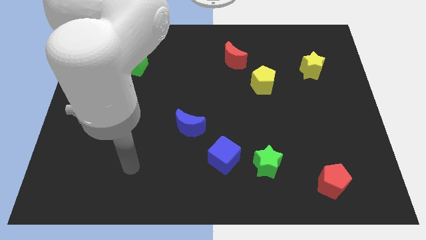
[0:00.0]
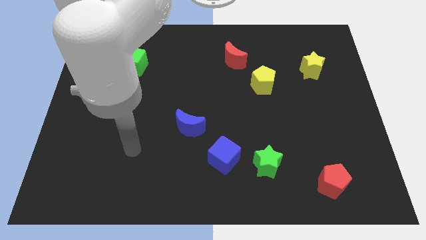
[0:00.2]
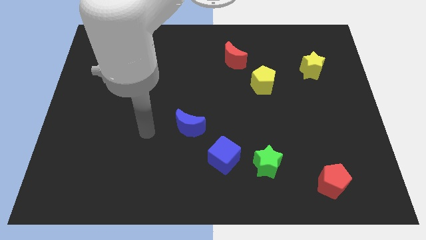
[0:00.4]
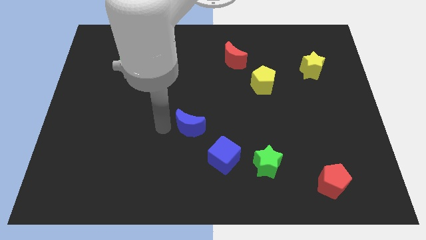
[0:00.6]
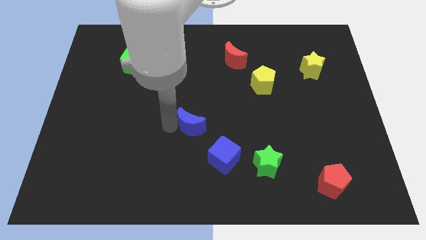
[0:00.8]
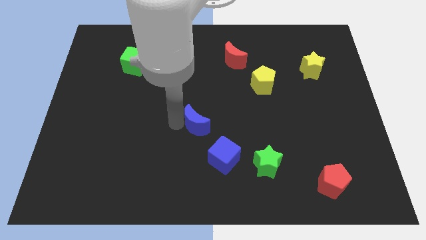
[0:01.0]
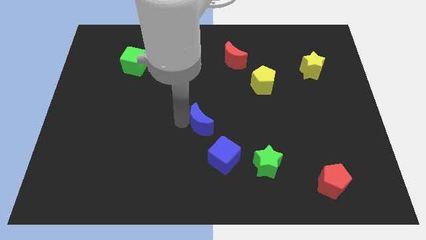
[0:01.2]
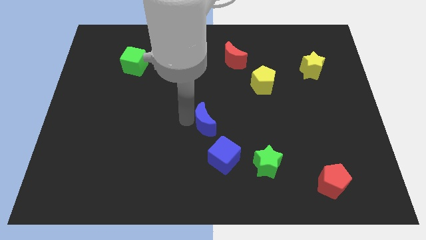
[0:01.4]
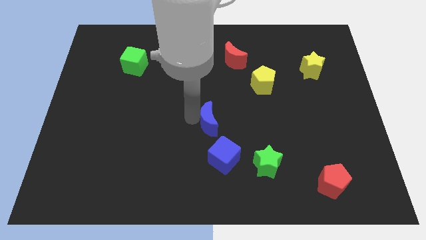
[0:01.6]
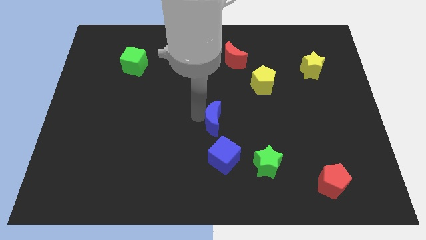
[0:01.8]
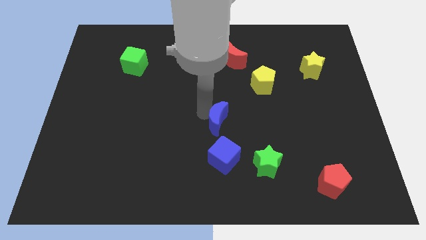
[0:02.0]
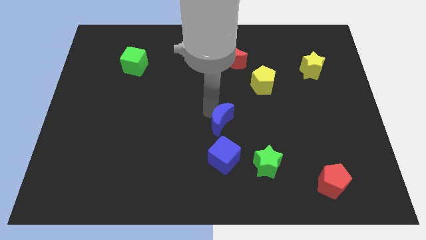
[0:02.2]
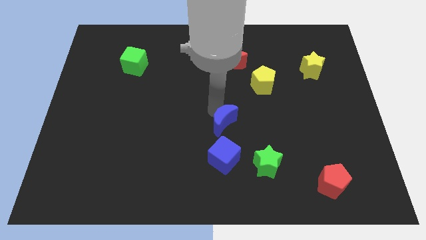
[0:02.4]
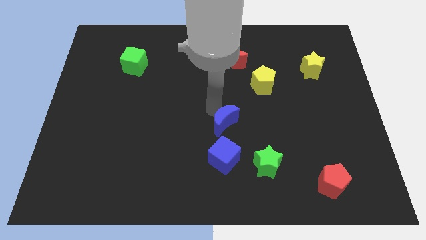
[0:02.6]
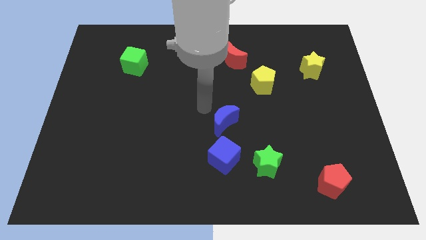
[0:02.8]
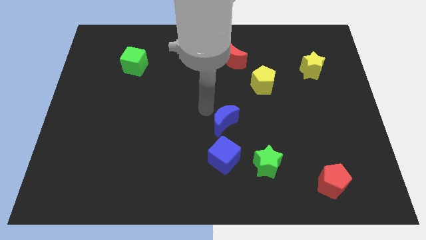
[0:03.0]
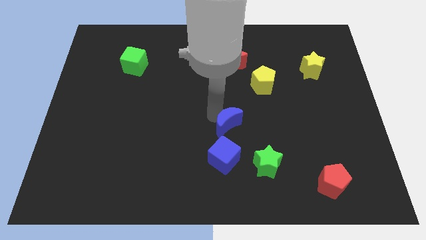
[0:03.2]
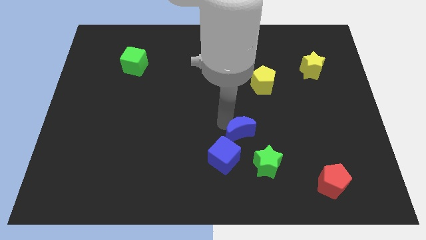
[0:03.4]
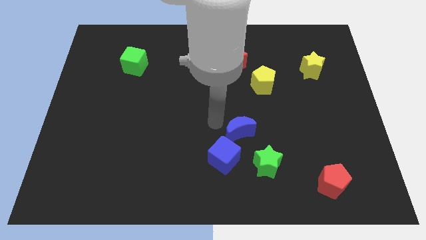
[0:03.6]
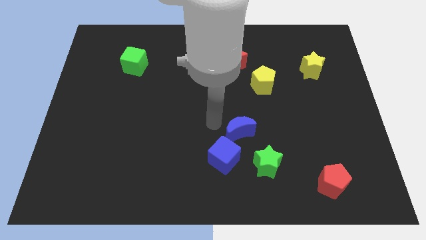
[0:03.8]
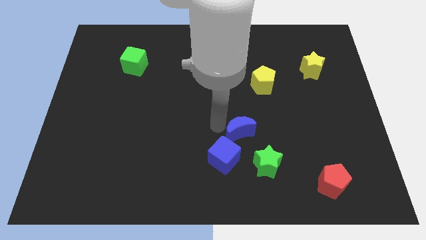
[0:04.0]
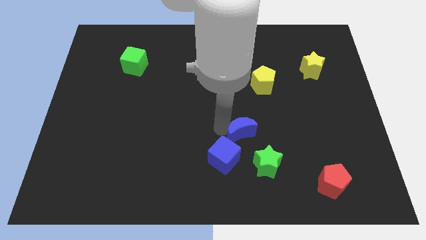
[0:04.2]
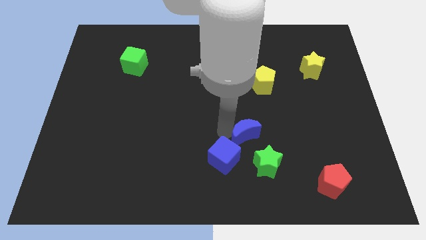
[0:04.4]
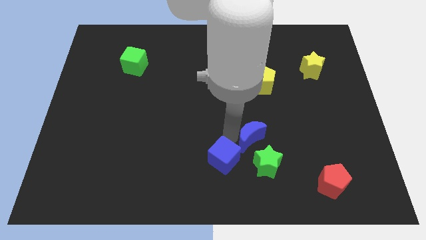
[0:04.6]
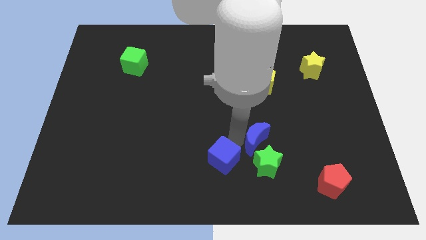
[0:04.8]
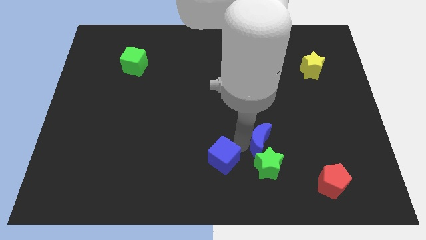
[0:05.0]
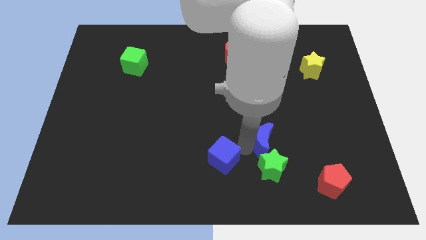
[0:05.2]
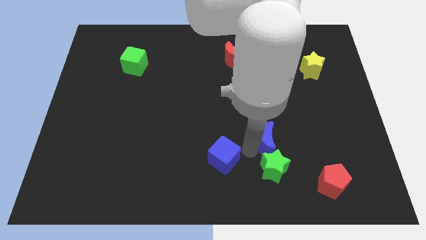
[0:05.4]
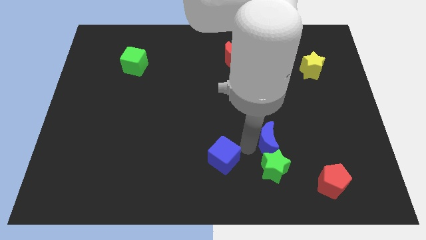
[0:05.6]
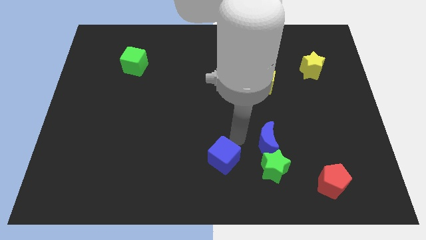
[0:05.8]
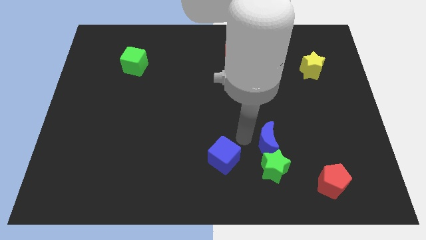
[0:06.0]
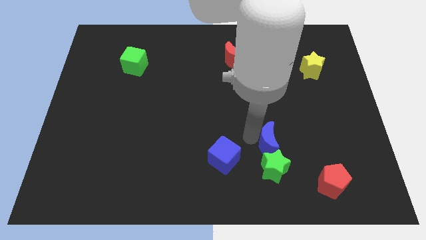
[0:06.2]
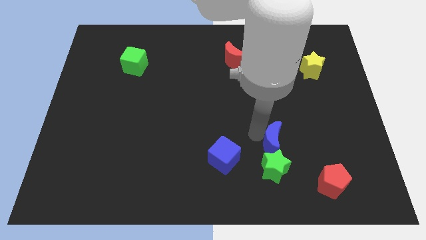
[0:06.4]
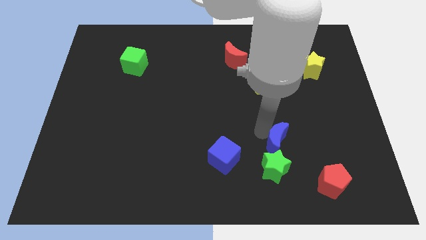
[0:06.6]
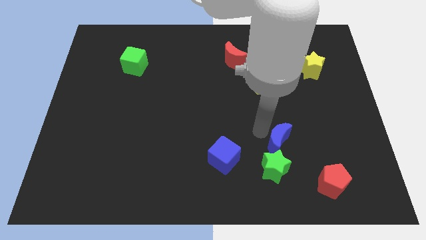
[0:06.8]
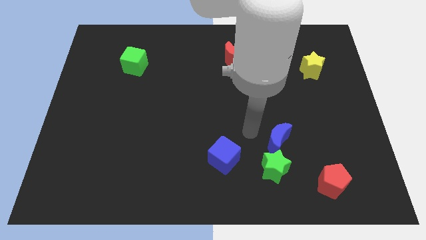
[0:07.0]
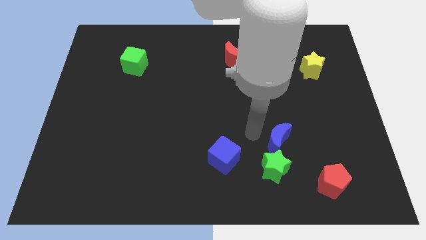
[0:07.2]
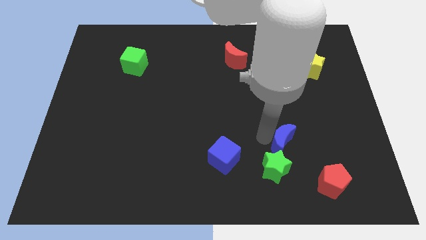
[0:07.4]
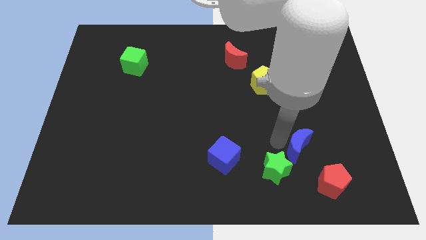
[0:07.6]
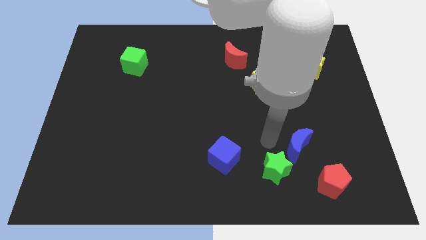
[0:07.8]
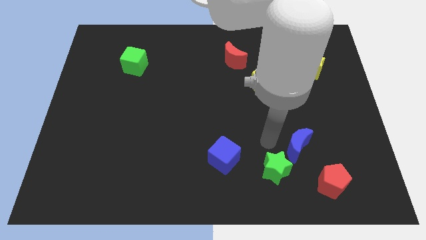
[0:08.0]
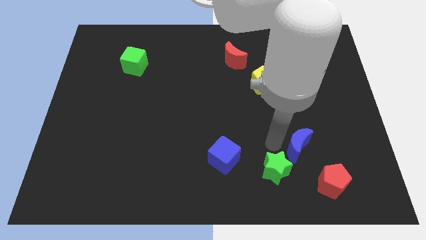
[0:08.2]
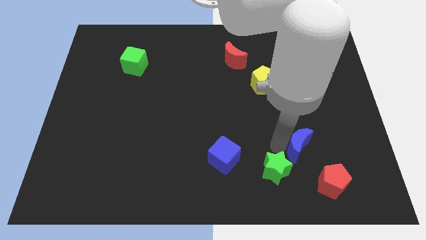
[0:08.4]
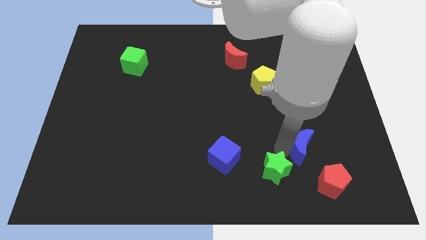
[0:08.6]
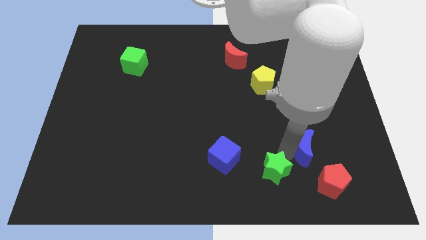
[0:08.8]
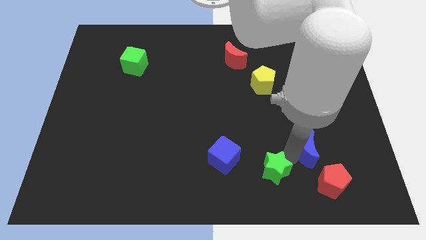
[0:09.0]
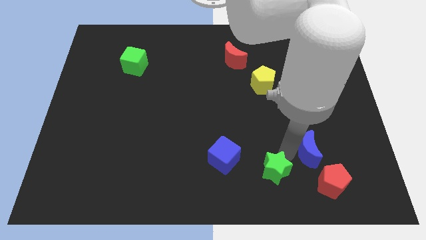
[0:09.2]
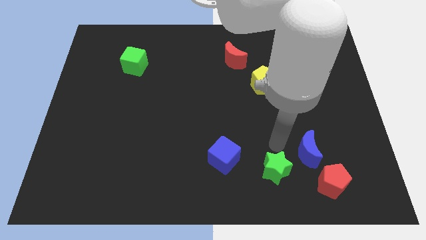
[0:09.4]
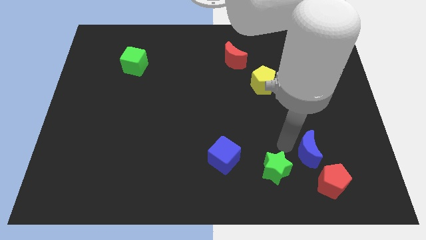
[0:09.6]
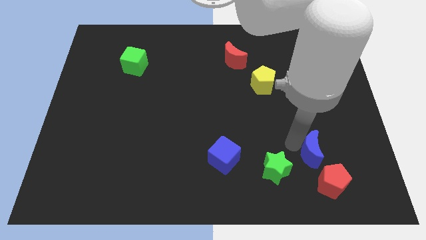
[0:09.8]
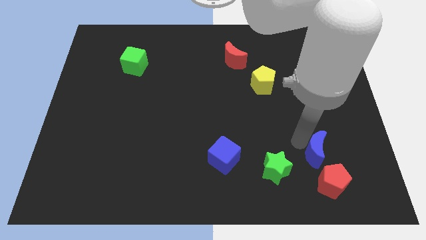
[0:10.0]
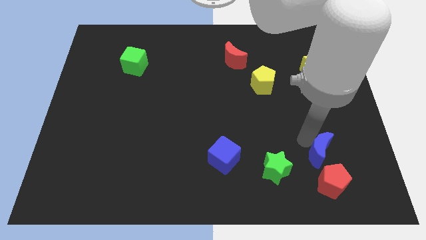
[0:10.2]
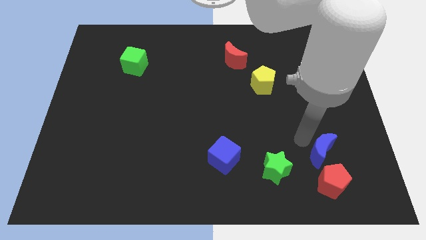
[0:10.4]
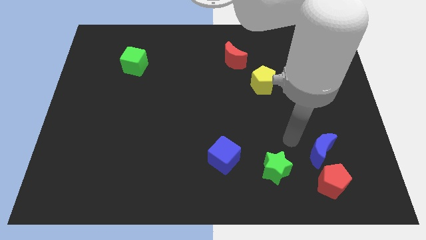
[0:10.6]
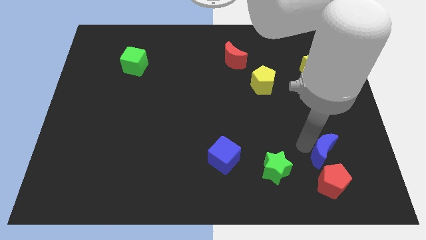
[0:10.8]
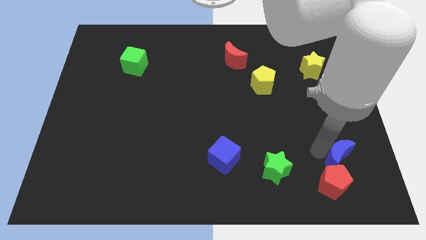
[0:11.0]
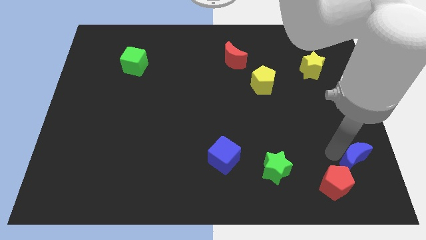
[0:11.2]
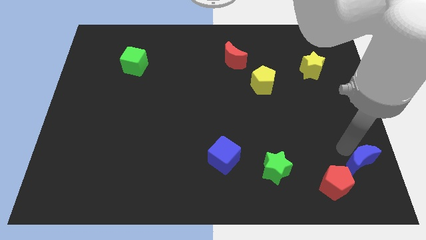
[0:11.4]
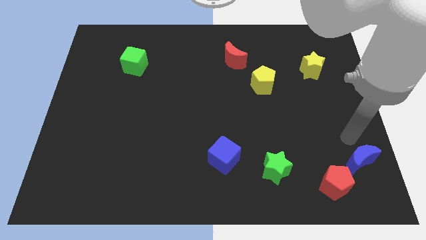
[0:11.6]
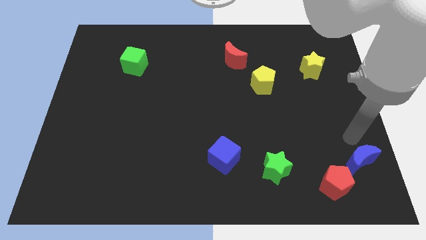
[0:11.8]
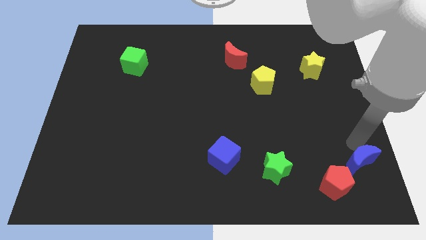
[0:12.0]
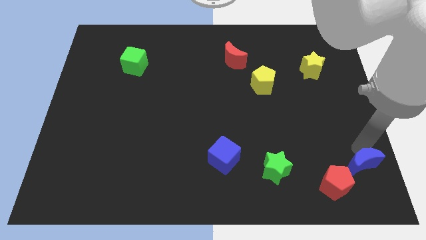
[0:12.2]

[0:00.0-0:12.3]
move the blue moon to the bottom right of the board
